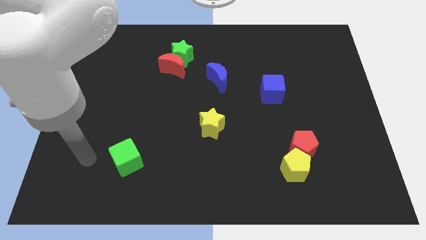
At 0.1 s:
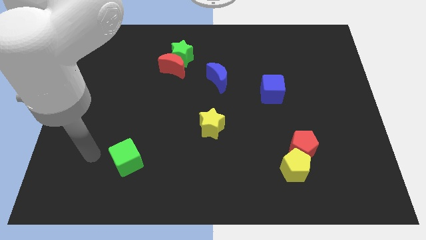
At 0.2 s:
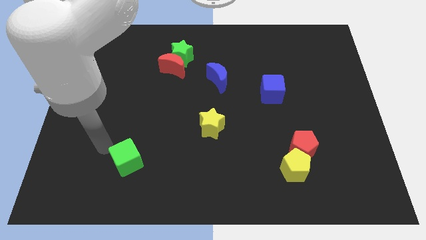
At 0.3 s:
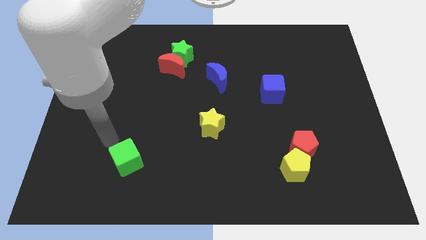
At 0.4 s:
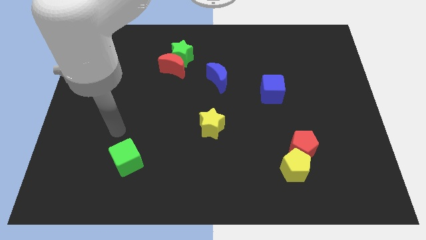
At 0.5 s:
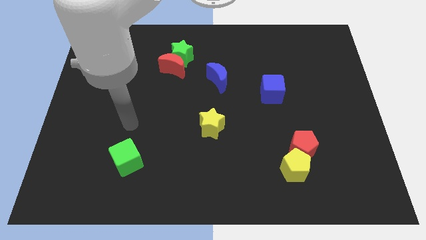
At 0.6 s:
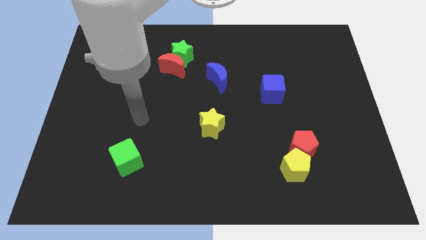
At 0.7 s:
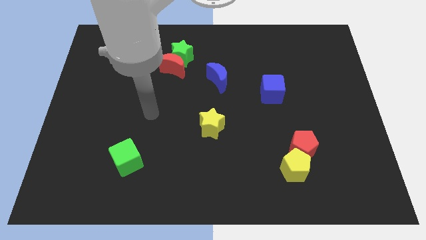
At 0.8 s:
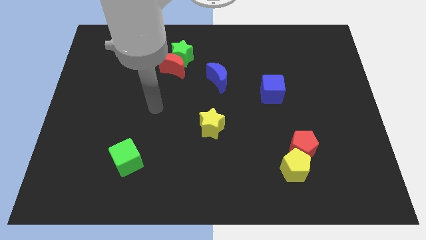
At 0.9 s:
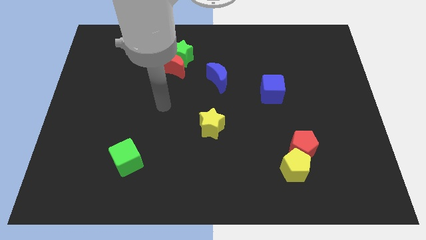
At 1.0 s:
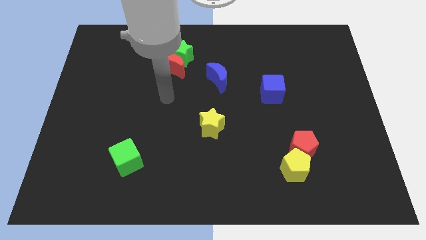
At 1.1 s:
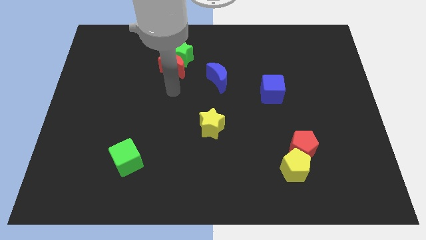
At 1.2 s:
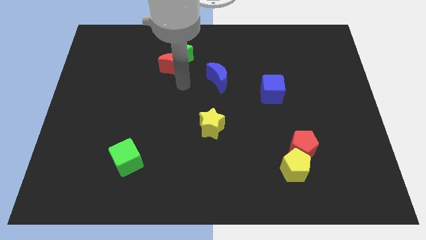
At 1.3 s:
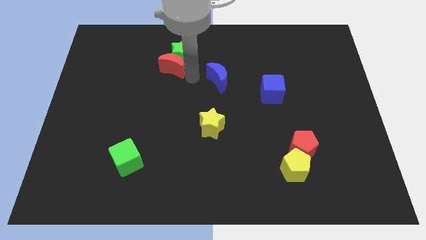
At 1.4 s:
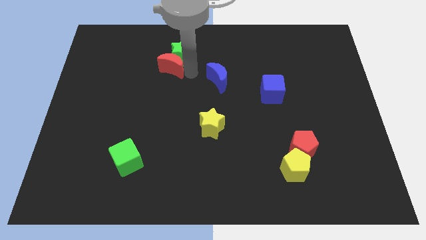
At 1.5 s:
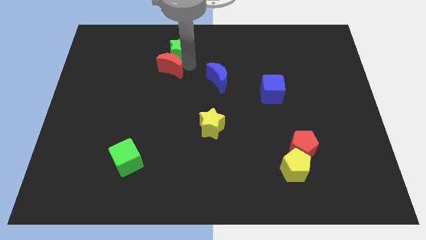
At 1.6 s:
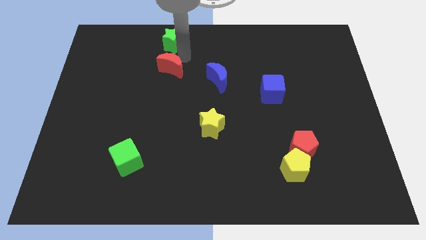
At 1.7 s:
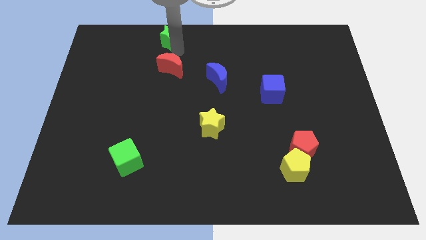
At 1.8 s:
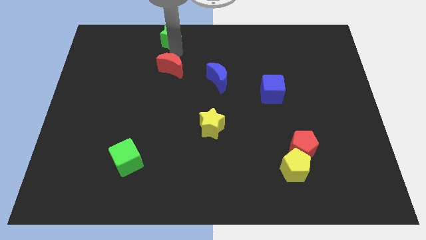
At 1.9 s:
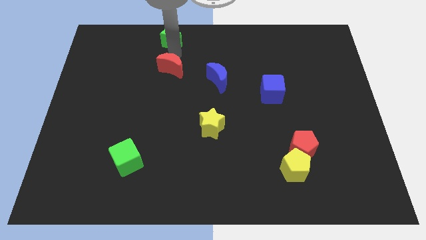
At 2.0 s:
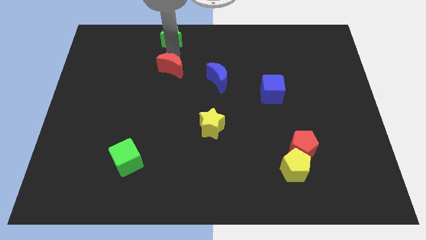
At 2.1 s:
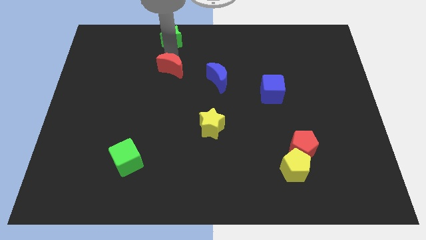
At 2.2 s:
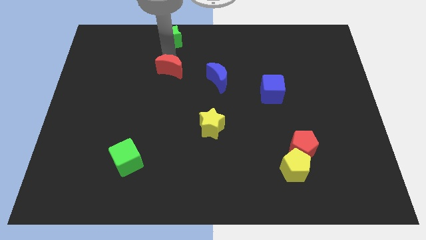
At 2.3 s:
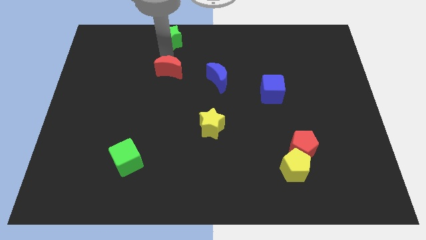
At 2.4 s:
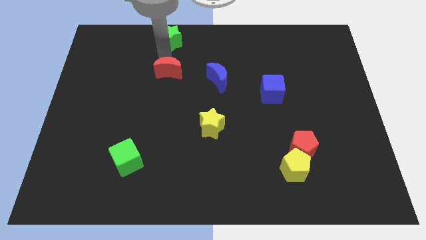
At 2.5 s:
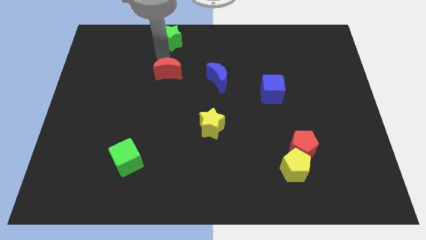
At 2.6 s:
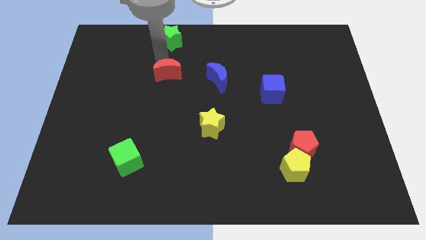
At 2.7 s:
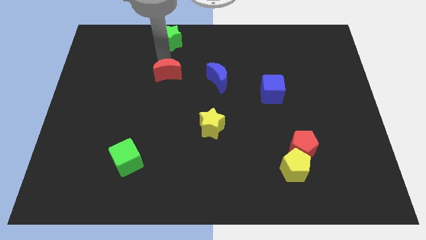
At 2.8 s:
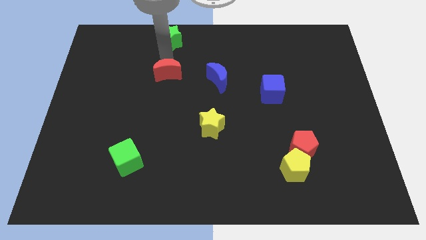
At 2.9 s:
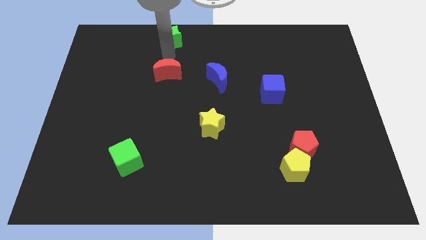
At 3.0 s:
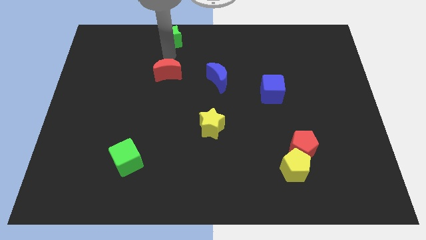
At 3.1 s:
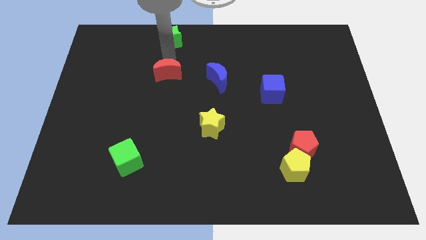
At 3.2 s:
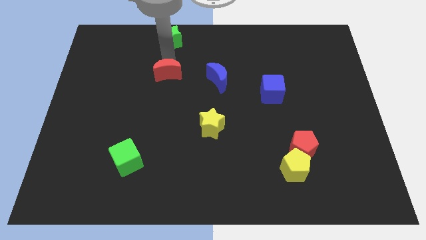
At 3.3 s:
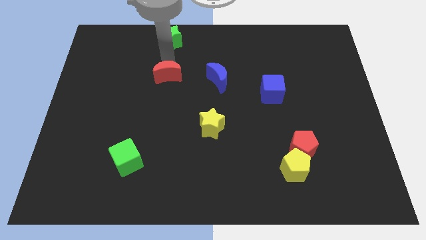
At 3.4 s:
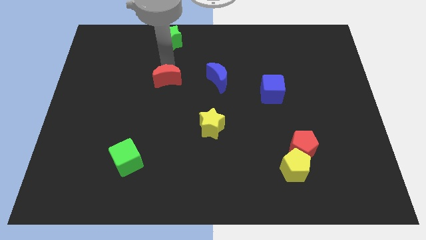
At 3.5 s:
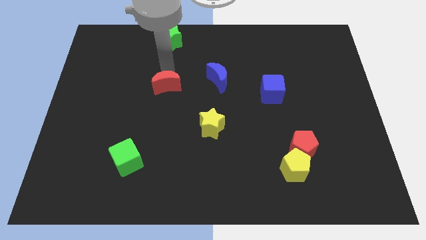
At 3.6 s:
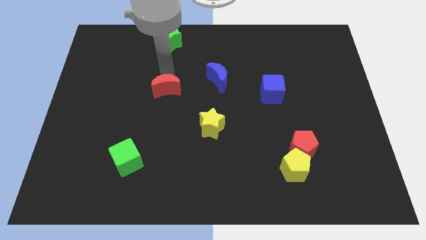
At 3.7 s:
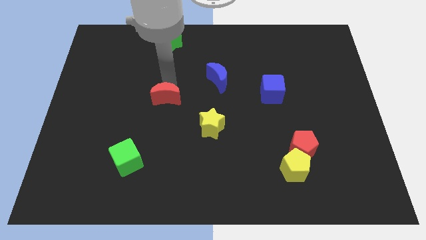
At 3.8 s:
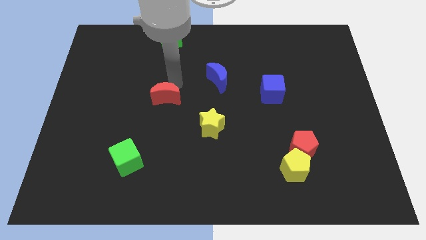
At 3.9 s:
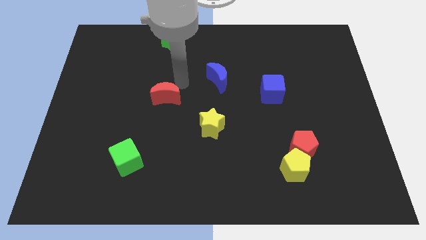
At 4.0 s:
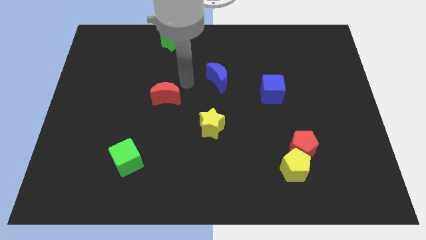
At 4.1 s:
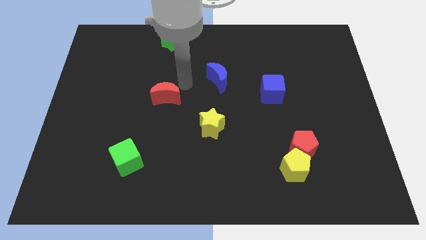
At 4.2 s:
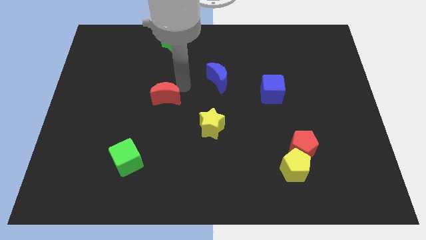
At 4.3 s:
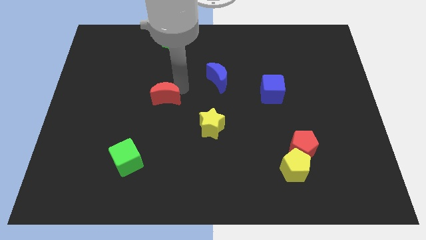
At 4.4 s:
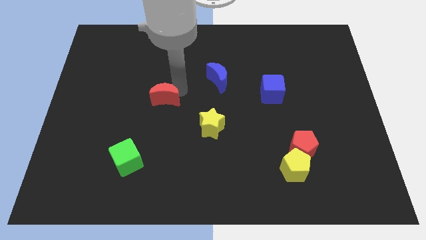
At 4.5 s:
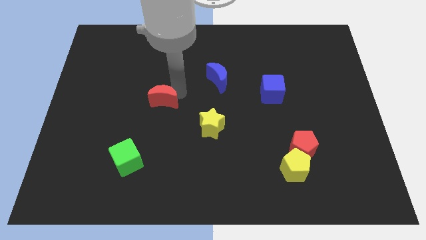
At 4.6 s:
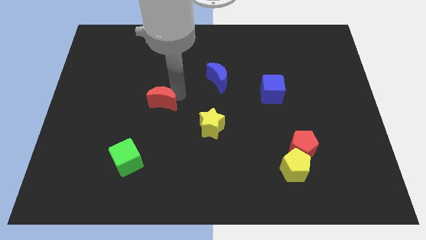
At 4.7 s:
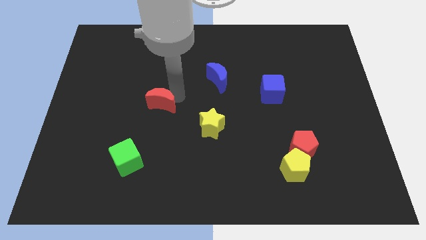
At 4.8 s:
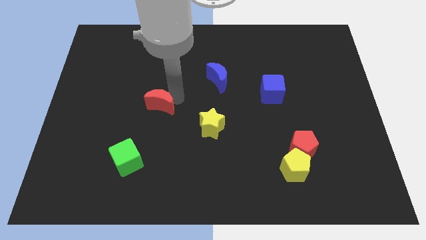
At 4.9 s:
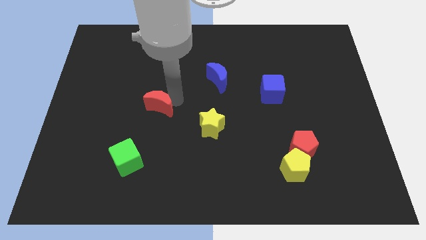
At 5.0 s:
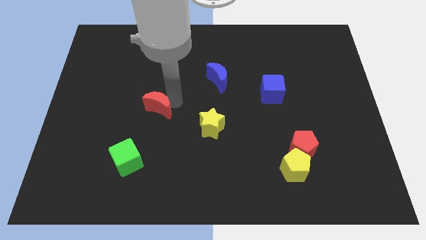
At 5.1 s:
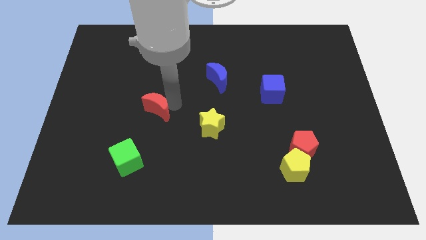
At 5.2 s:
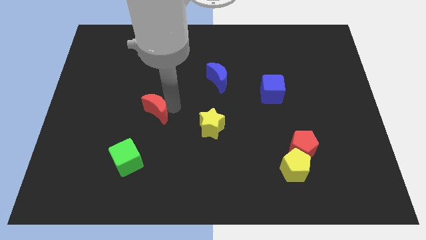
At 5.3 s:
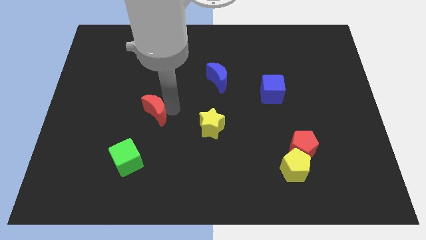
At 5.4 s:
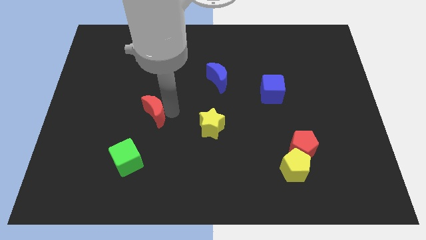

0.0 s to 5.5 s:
put the red moon above the green cube

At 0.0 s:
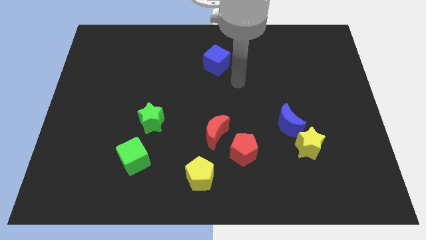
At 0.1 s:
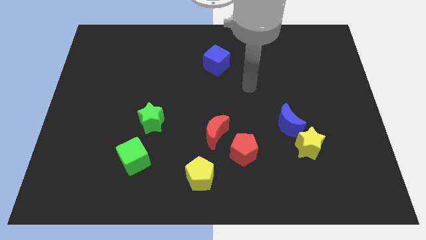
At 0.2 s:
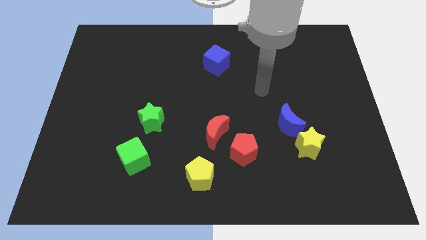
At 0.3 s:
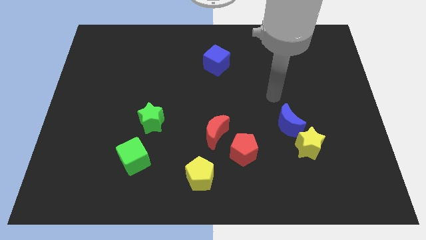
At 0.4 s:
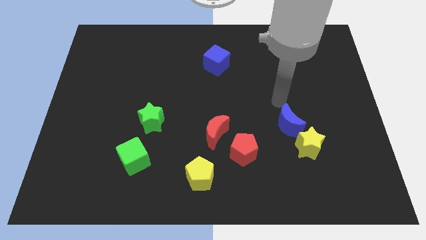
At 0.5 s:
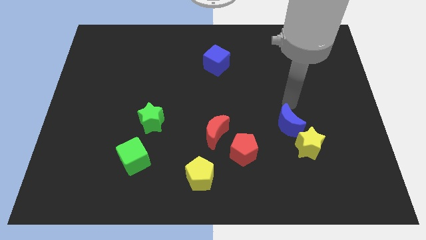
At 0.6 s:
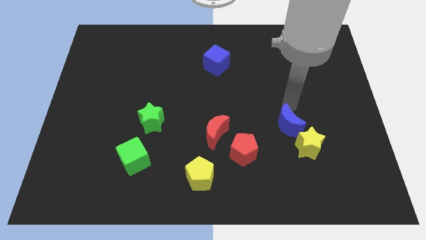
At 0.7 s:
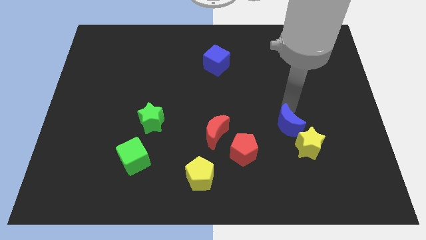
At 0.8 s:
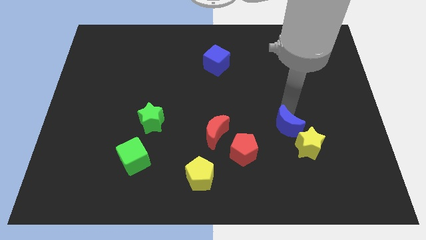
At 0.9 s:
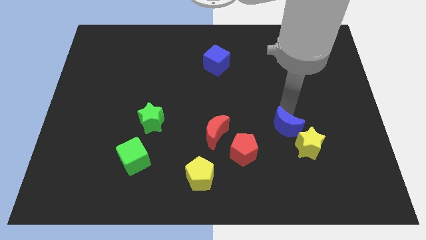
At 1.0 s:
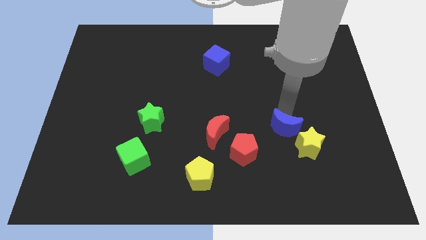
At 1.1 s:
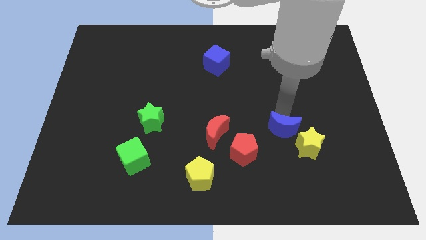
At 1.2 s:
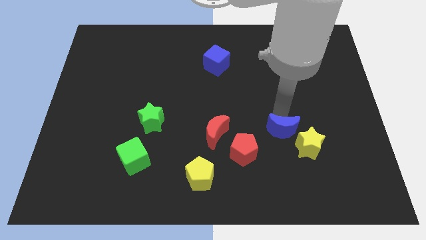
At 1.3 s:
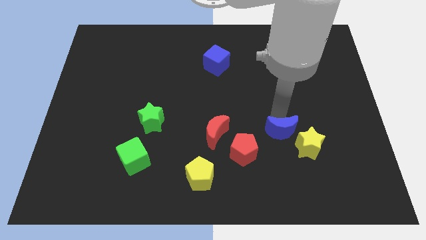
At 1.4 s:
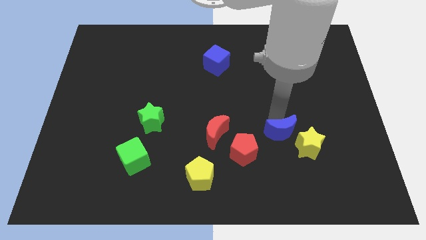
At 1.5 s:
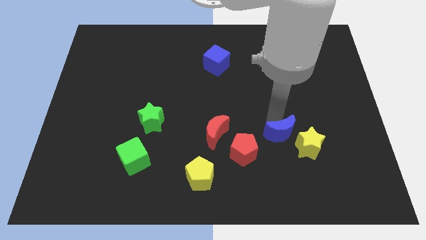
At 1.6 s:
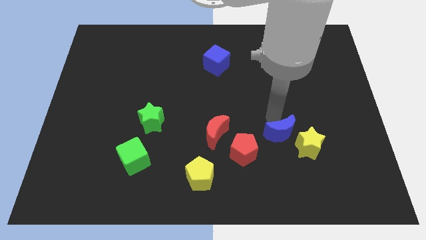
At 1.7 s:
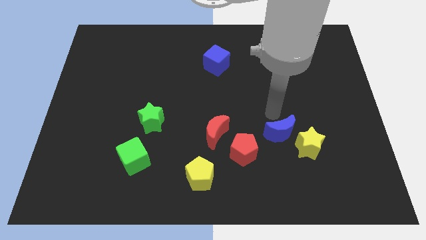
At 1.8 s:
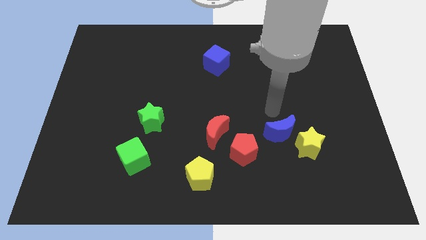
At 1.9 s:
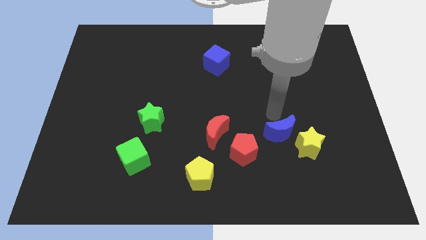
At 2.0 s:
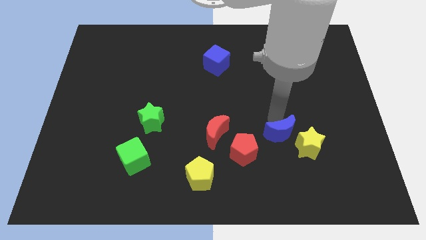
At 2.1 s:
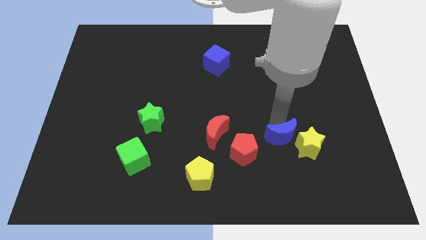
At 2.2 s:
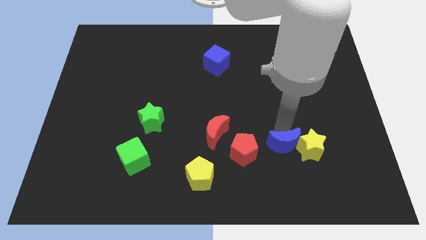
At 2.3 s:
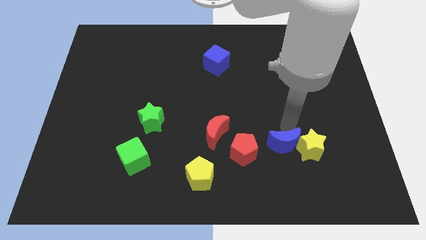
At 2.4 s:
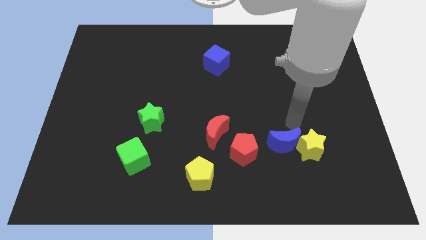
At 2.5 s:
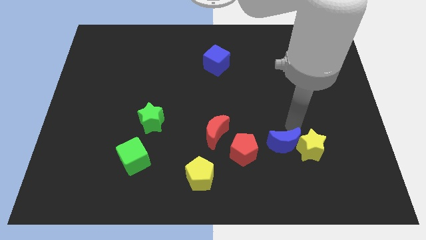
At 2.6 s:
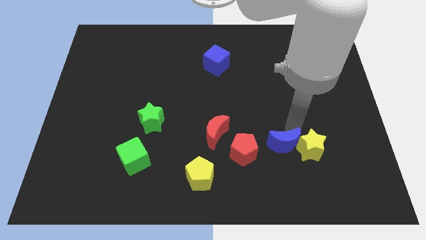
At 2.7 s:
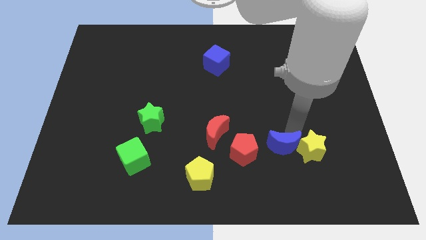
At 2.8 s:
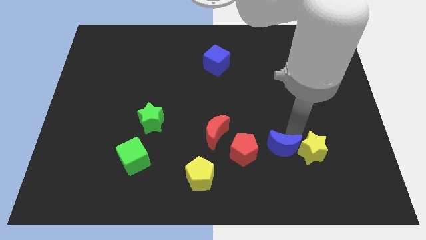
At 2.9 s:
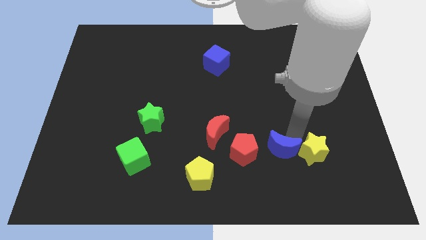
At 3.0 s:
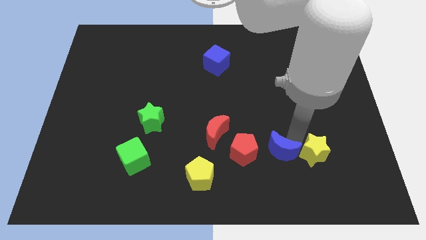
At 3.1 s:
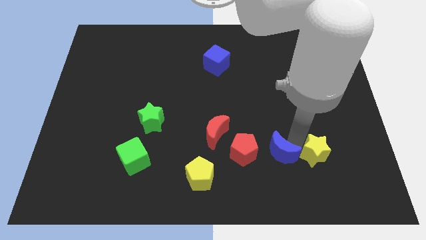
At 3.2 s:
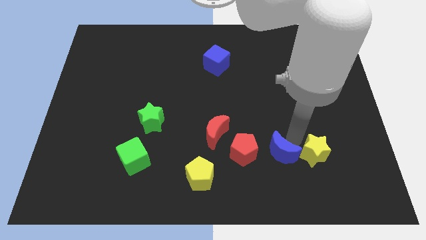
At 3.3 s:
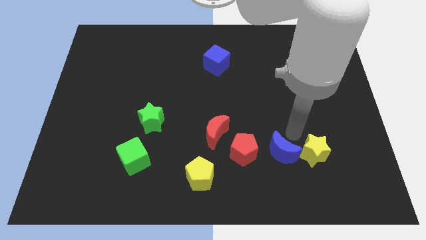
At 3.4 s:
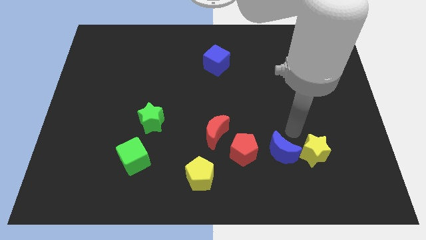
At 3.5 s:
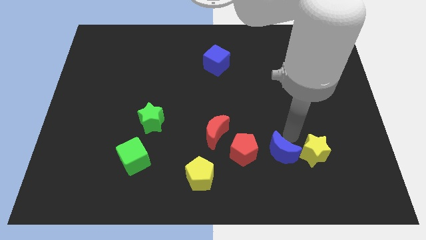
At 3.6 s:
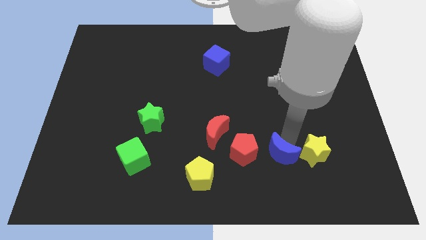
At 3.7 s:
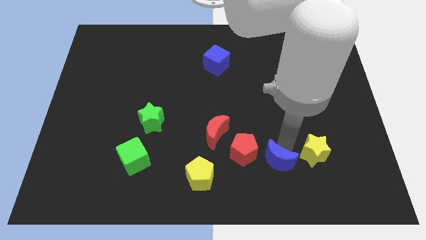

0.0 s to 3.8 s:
move the blue moon diagonally down and to the right of the red pentagon
